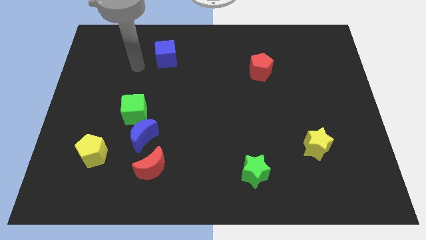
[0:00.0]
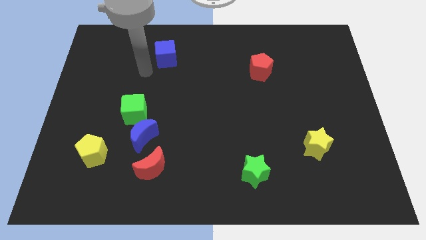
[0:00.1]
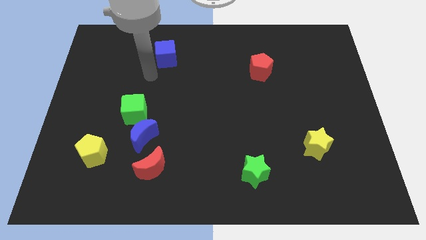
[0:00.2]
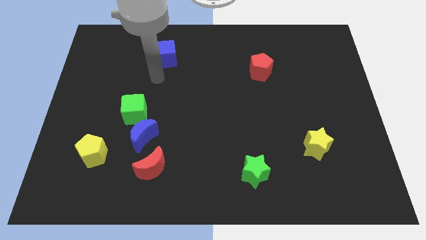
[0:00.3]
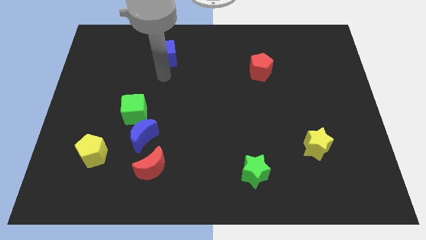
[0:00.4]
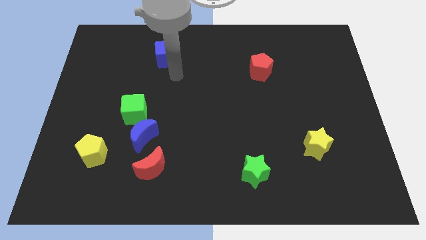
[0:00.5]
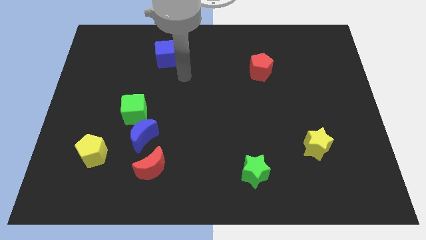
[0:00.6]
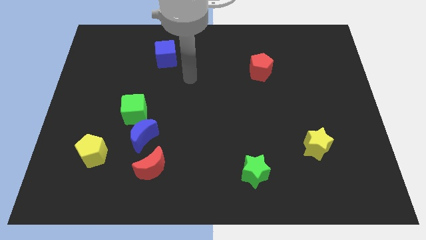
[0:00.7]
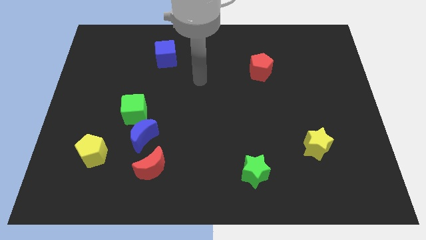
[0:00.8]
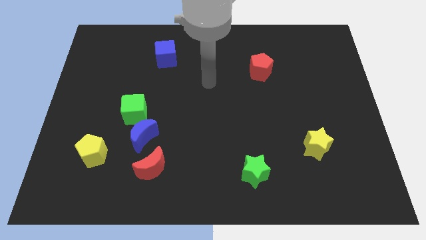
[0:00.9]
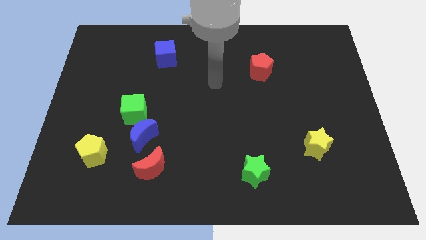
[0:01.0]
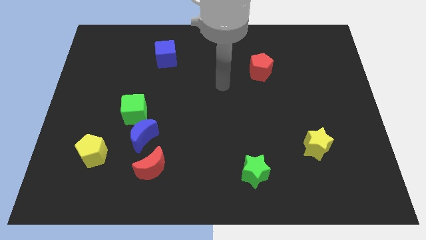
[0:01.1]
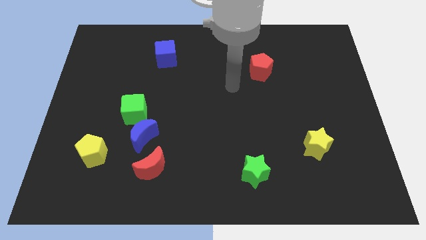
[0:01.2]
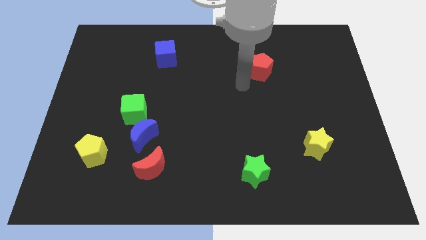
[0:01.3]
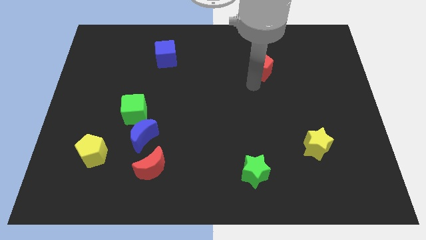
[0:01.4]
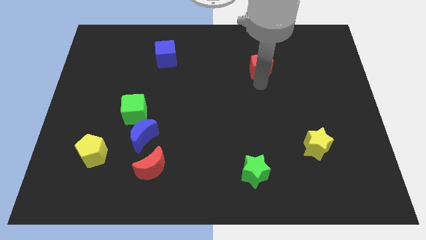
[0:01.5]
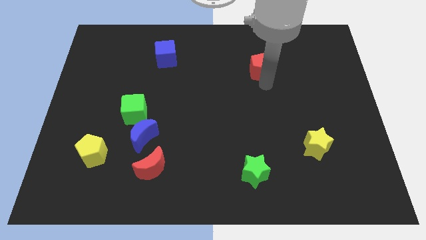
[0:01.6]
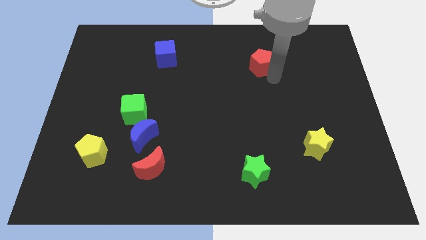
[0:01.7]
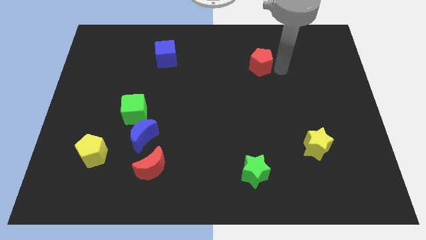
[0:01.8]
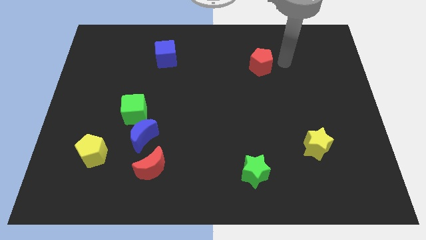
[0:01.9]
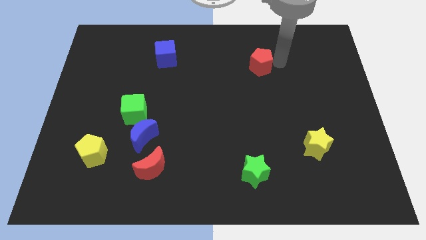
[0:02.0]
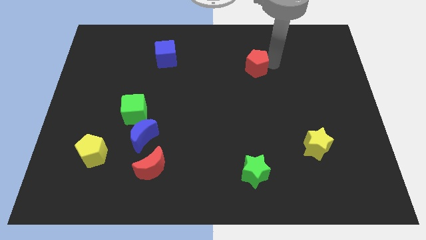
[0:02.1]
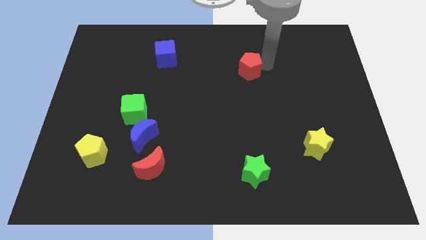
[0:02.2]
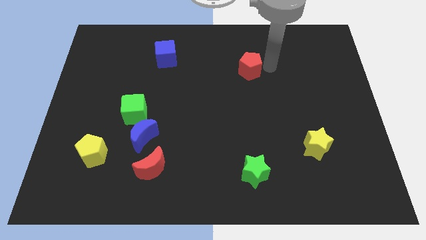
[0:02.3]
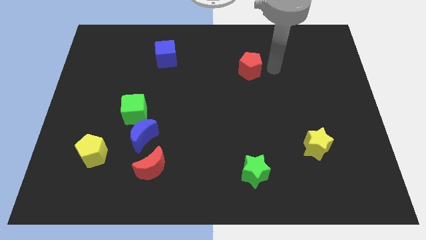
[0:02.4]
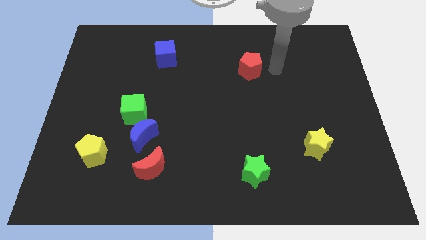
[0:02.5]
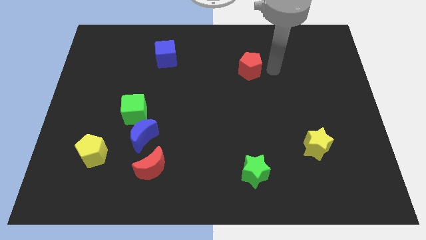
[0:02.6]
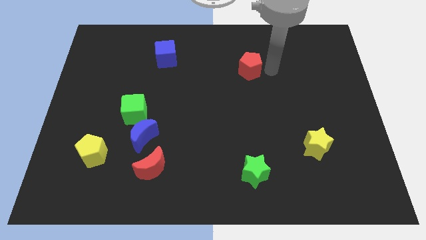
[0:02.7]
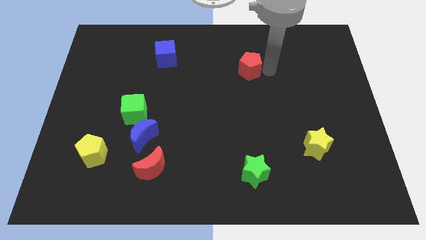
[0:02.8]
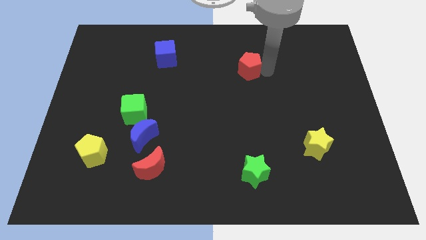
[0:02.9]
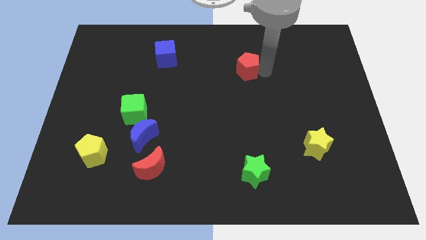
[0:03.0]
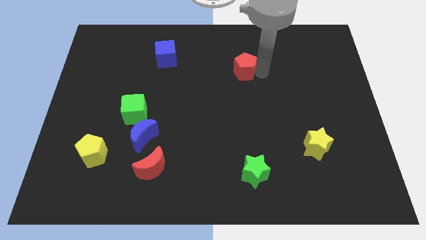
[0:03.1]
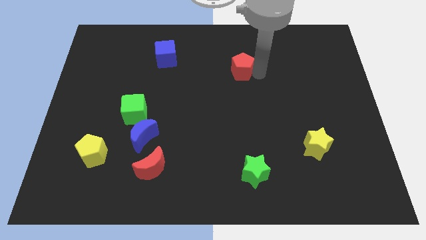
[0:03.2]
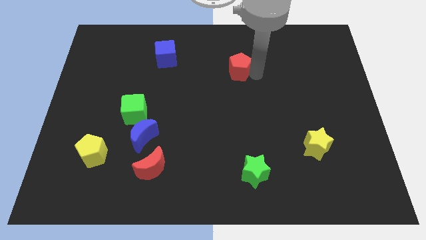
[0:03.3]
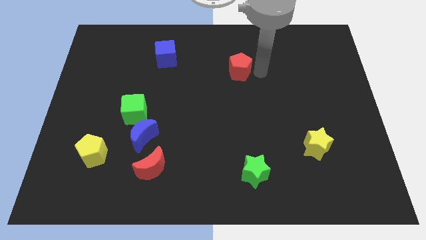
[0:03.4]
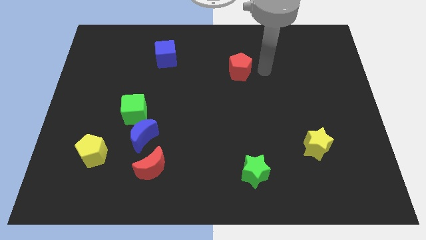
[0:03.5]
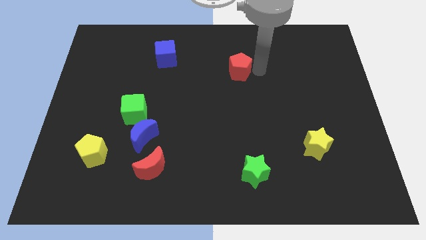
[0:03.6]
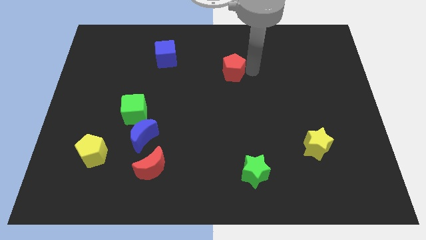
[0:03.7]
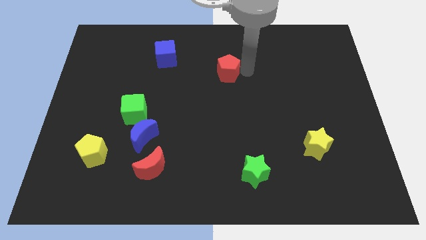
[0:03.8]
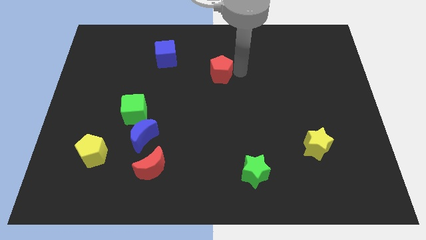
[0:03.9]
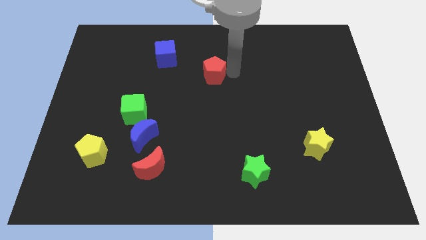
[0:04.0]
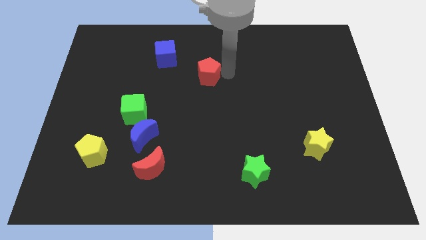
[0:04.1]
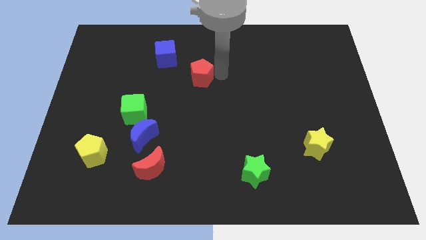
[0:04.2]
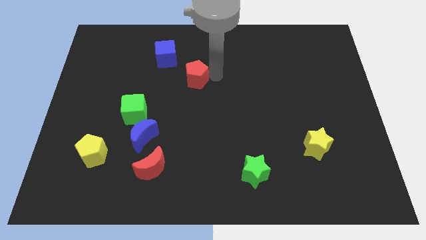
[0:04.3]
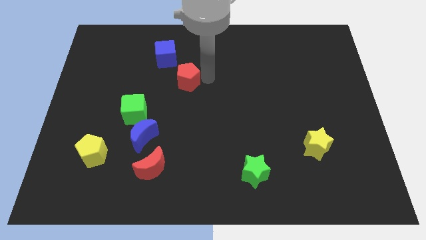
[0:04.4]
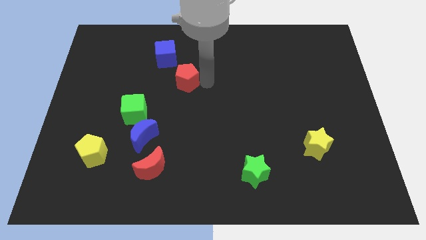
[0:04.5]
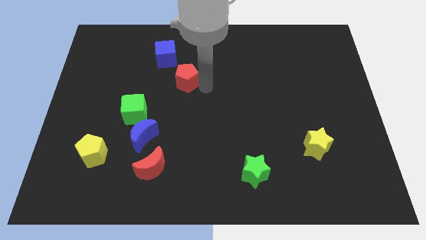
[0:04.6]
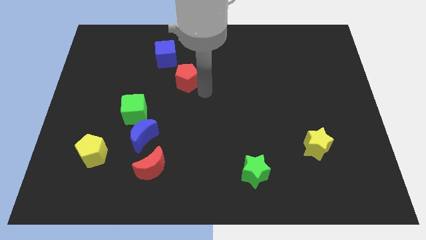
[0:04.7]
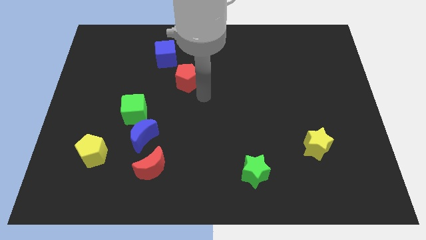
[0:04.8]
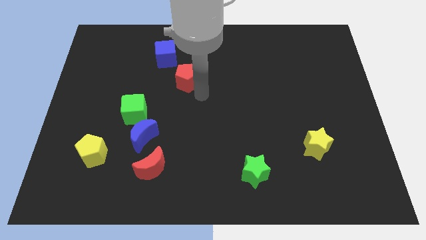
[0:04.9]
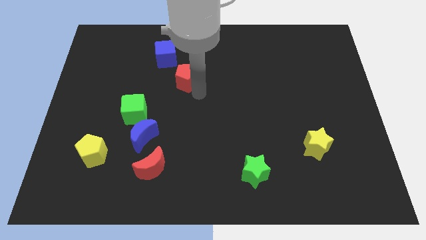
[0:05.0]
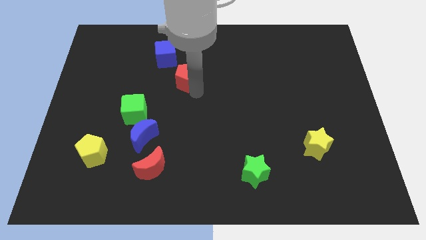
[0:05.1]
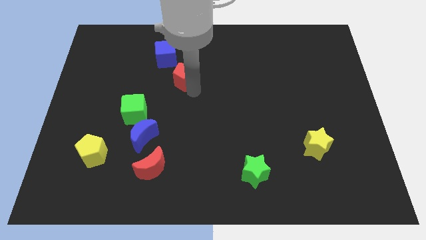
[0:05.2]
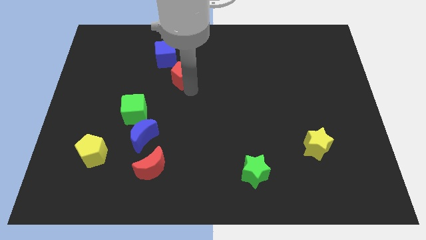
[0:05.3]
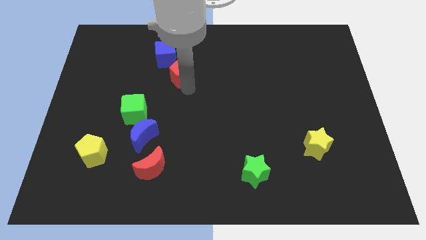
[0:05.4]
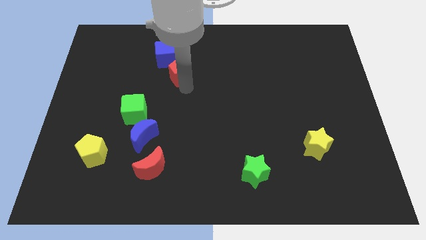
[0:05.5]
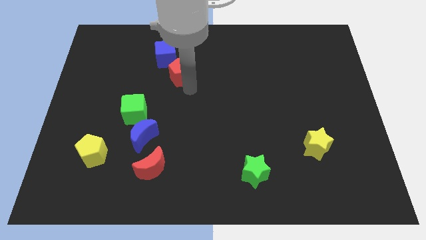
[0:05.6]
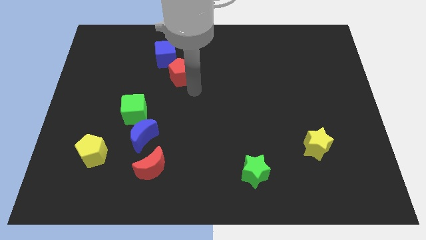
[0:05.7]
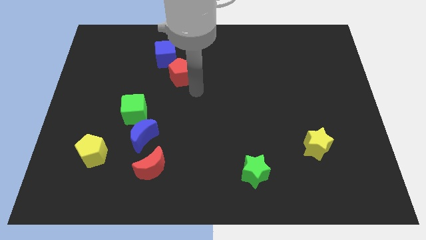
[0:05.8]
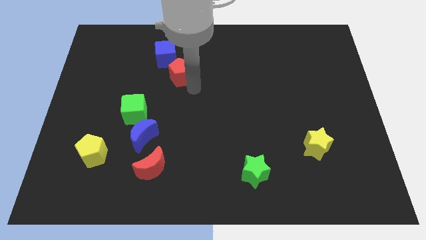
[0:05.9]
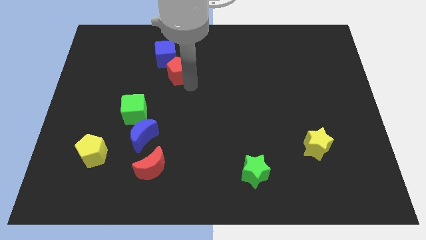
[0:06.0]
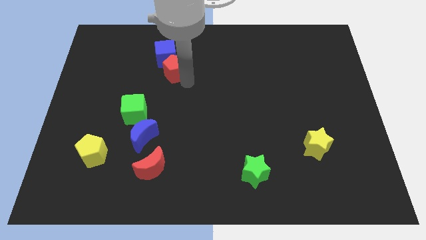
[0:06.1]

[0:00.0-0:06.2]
slide the red pentagon to the blue cube

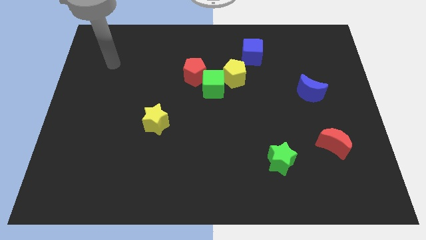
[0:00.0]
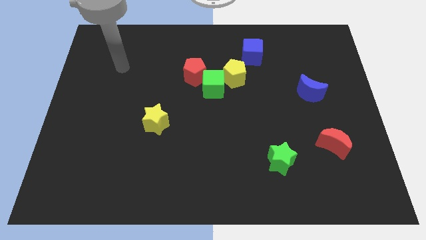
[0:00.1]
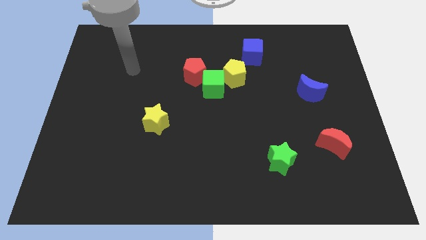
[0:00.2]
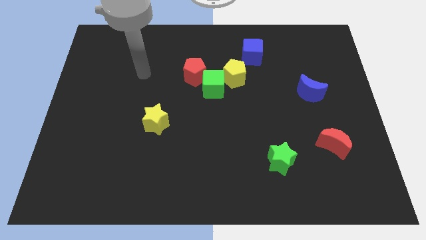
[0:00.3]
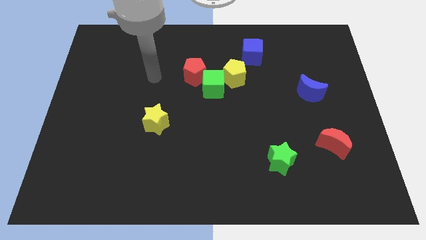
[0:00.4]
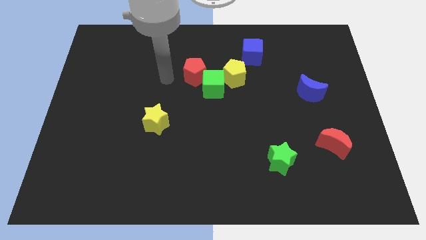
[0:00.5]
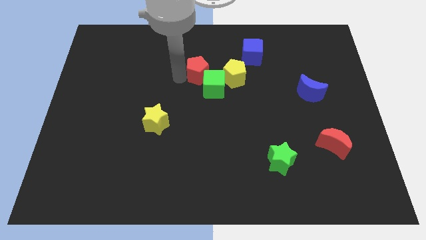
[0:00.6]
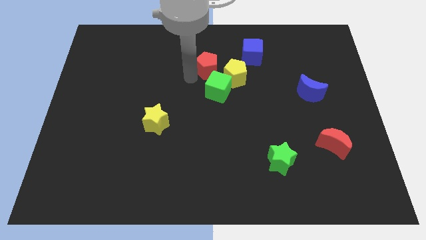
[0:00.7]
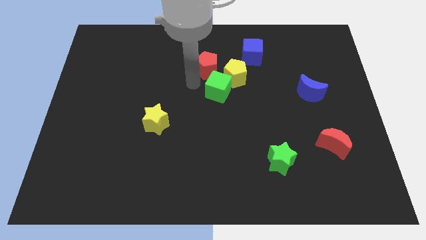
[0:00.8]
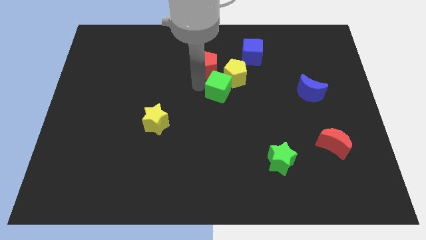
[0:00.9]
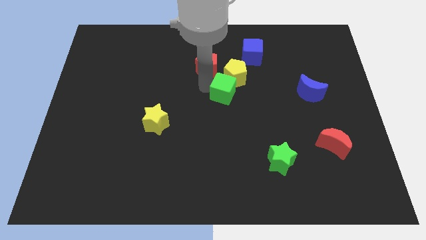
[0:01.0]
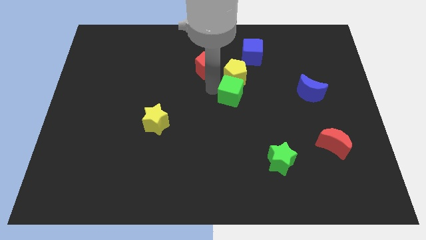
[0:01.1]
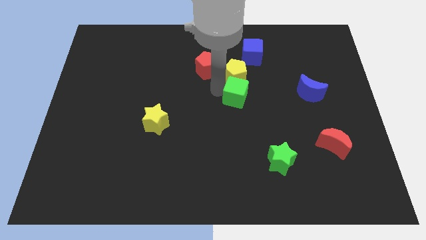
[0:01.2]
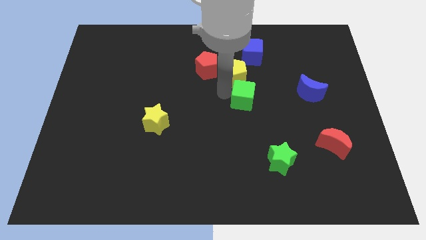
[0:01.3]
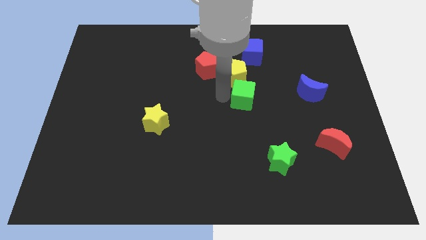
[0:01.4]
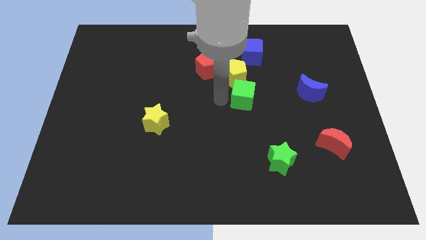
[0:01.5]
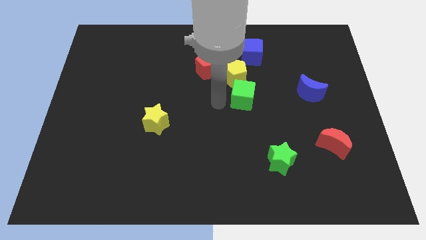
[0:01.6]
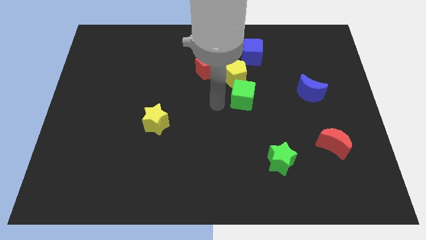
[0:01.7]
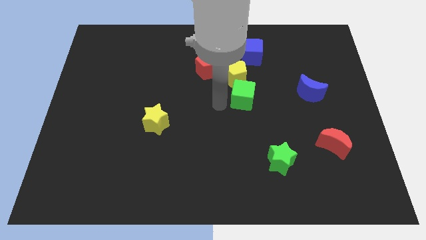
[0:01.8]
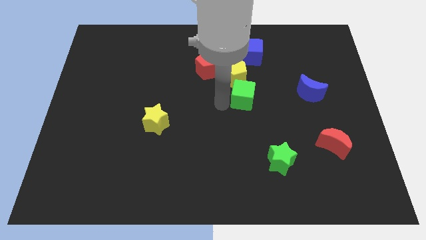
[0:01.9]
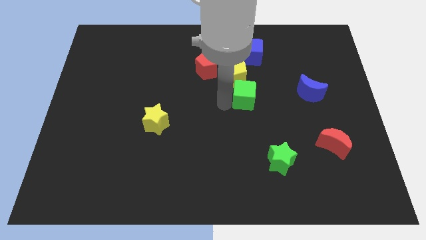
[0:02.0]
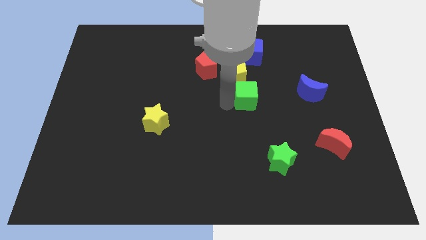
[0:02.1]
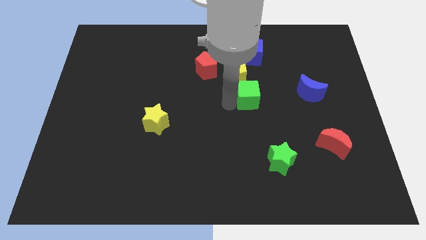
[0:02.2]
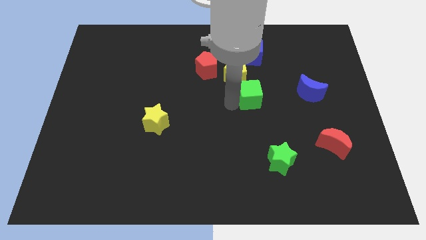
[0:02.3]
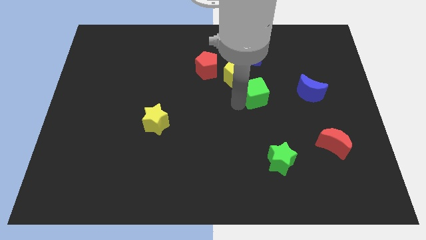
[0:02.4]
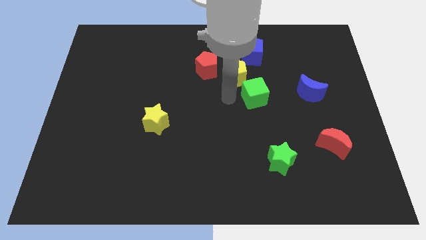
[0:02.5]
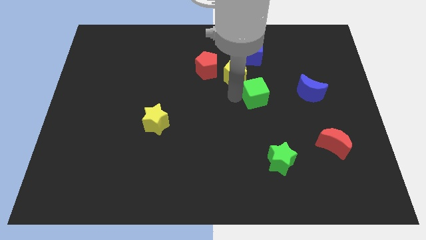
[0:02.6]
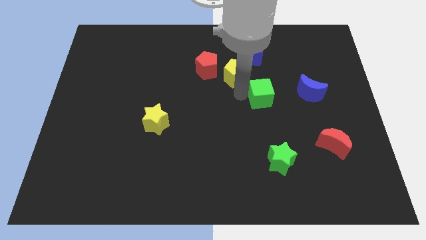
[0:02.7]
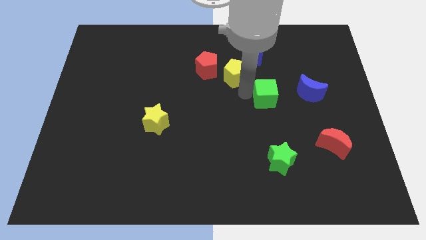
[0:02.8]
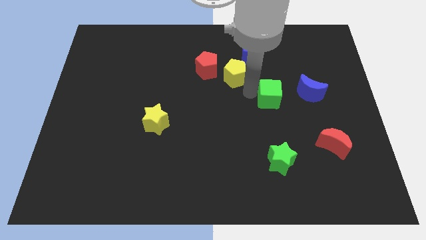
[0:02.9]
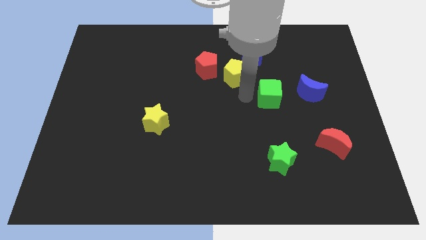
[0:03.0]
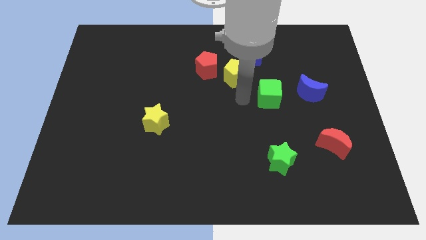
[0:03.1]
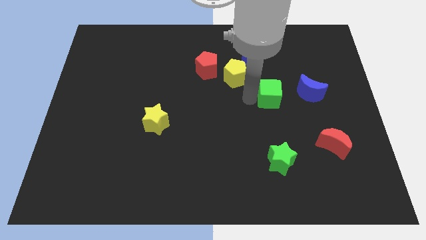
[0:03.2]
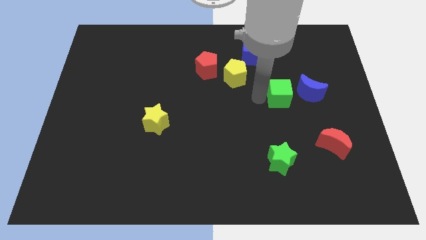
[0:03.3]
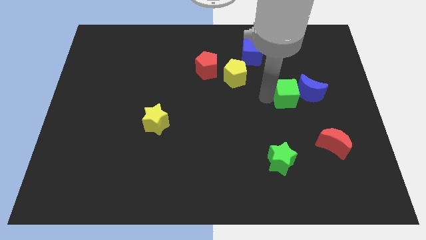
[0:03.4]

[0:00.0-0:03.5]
push the green cube to the blue moon
